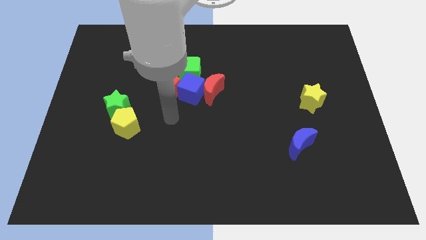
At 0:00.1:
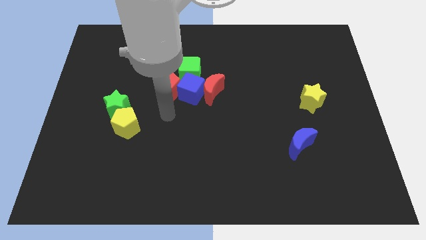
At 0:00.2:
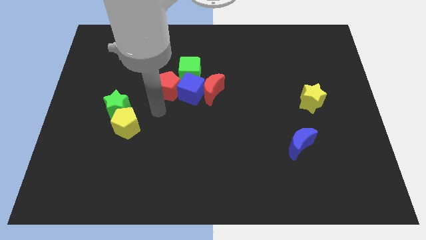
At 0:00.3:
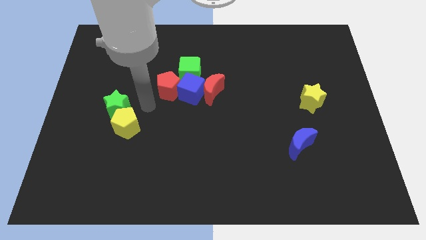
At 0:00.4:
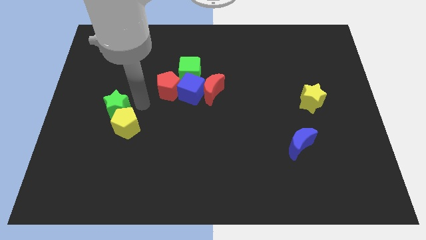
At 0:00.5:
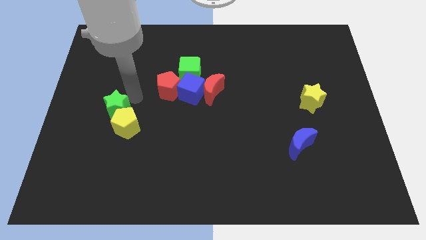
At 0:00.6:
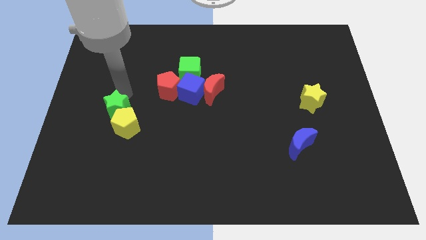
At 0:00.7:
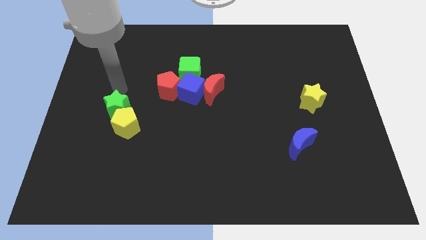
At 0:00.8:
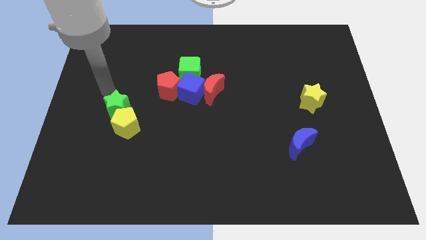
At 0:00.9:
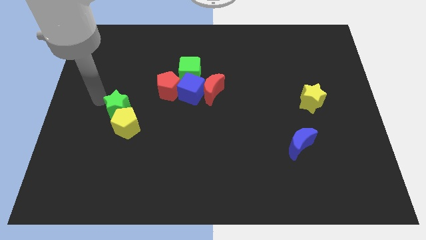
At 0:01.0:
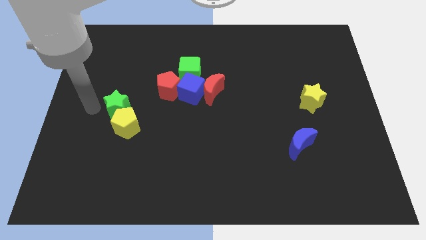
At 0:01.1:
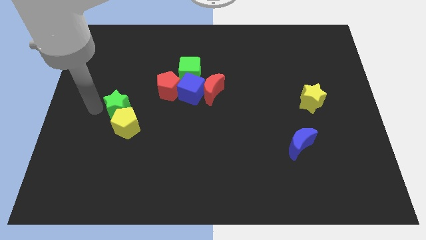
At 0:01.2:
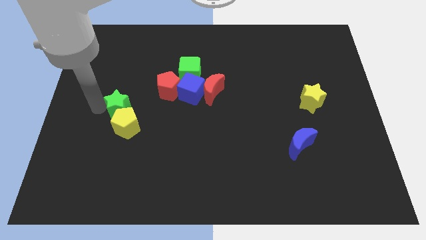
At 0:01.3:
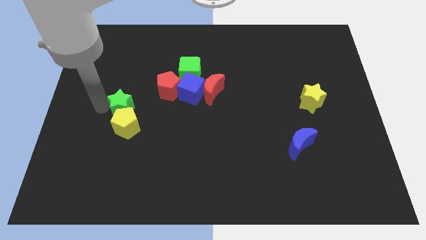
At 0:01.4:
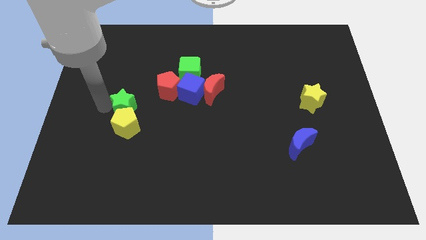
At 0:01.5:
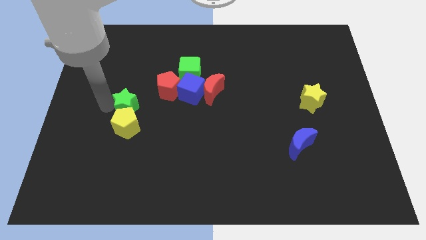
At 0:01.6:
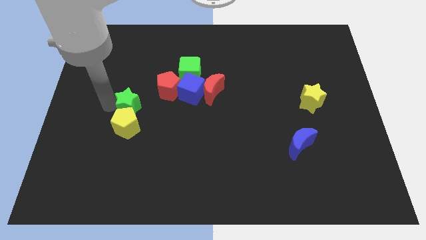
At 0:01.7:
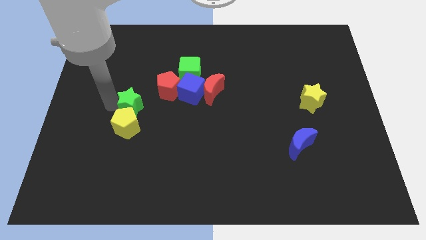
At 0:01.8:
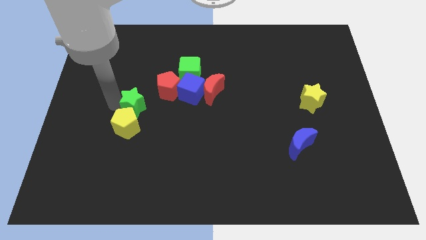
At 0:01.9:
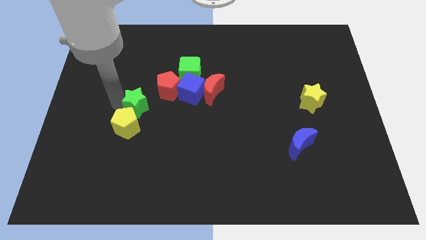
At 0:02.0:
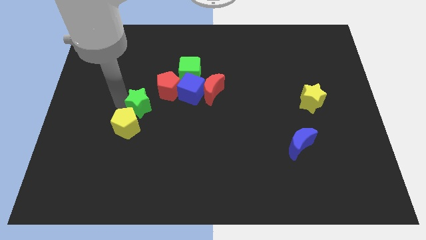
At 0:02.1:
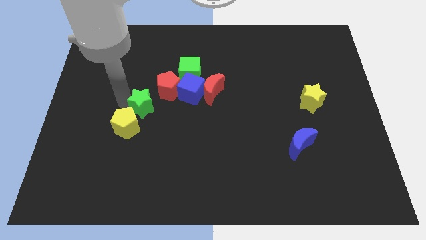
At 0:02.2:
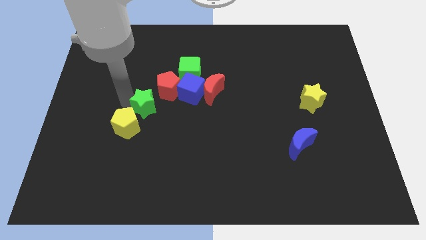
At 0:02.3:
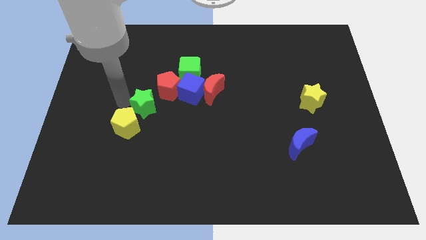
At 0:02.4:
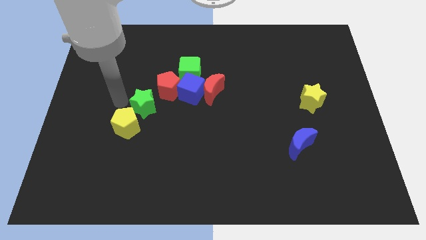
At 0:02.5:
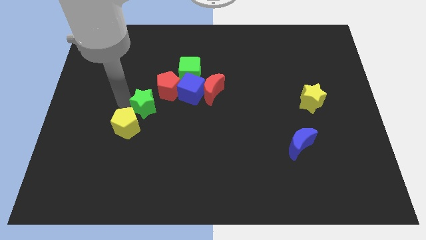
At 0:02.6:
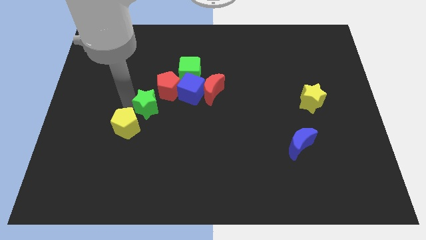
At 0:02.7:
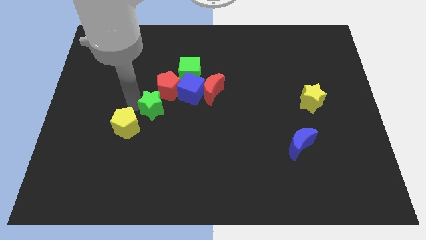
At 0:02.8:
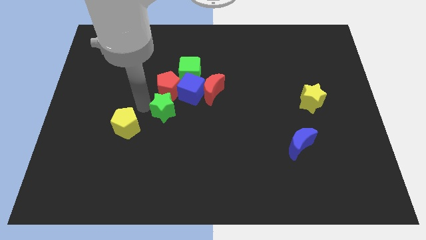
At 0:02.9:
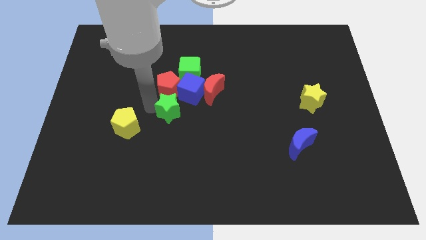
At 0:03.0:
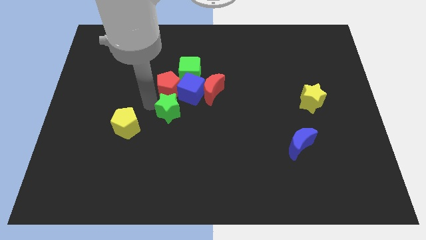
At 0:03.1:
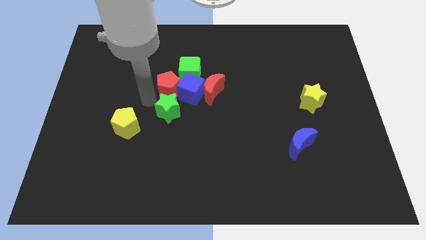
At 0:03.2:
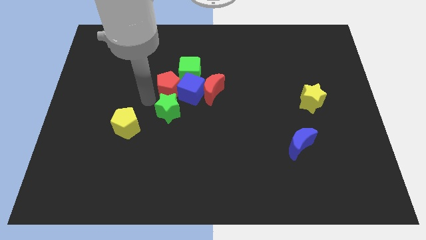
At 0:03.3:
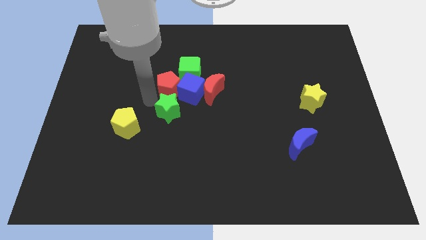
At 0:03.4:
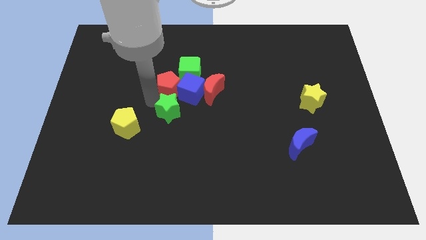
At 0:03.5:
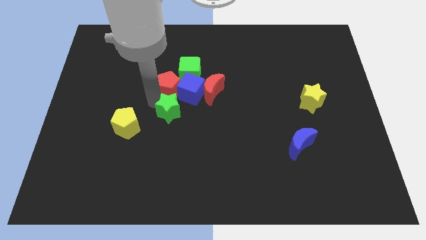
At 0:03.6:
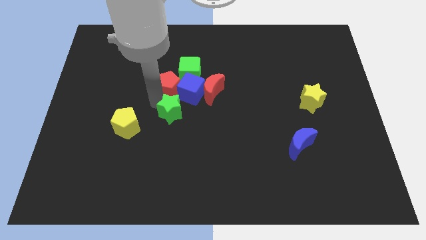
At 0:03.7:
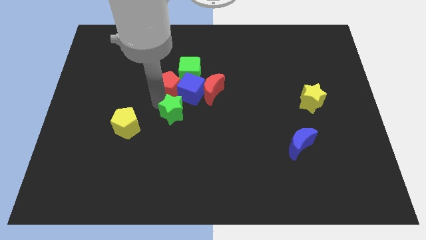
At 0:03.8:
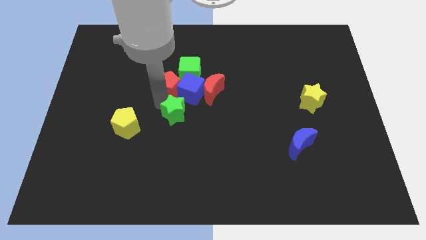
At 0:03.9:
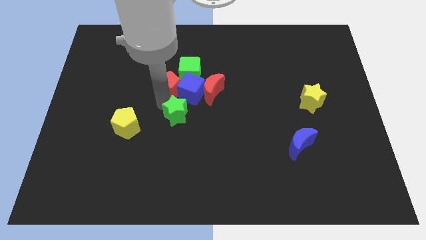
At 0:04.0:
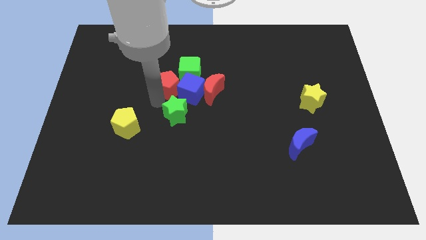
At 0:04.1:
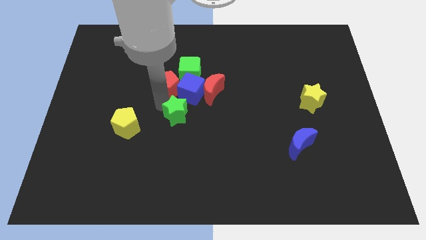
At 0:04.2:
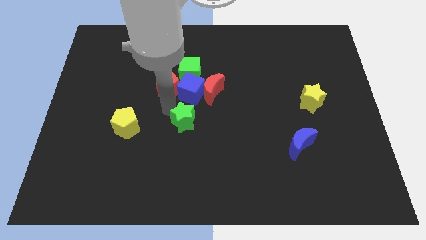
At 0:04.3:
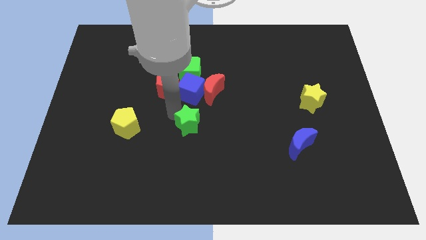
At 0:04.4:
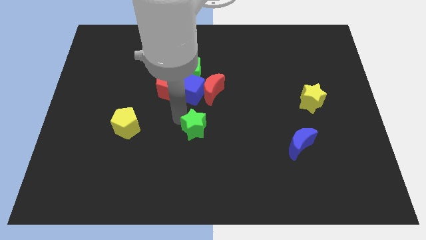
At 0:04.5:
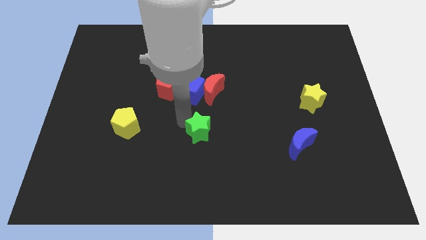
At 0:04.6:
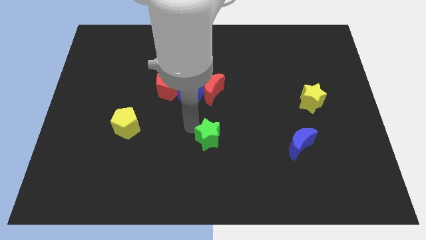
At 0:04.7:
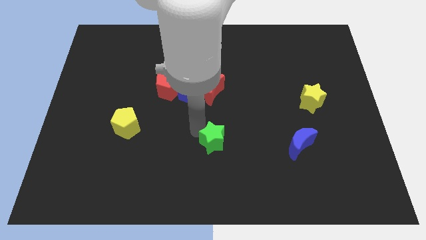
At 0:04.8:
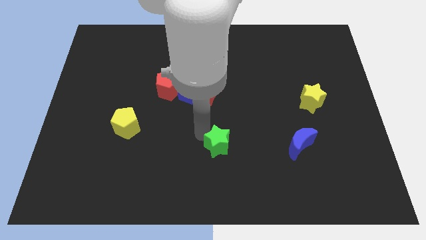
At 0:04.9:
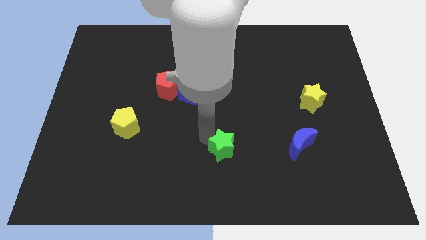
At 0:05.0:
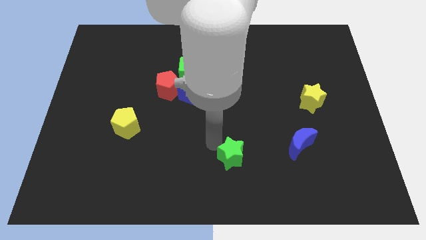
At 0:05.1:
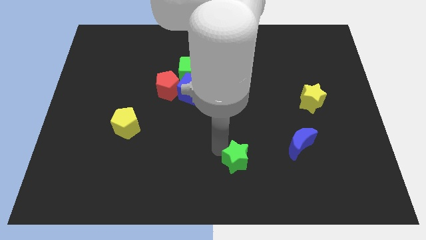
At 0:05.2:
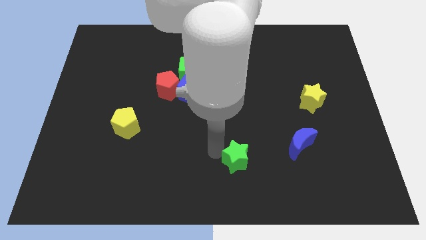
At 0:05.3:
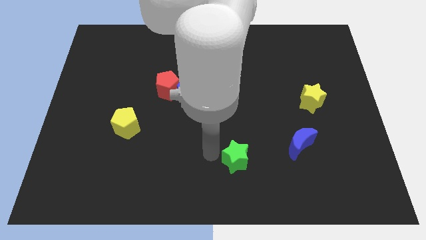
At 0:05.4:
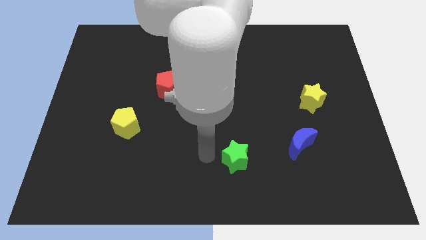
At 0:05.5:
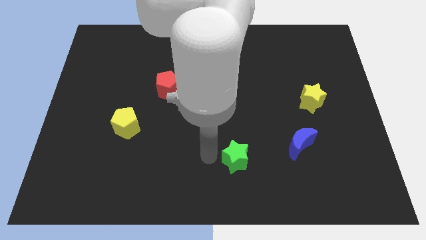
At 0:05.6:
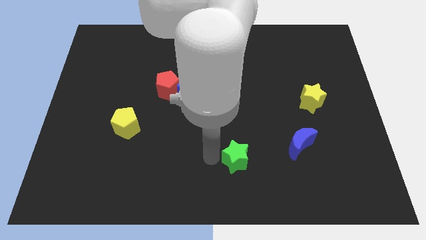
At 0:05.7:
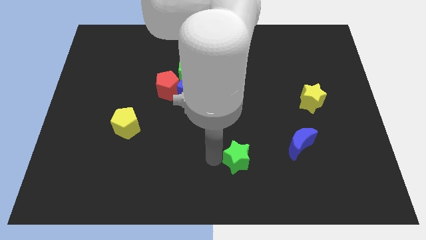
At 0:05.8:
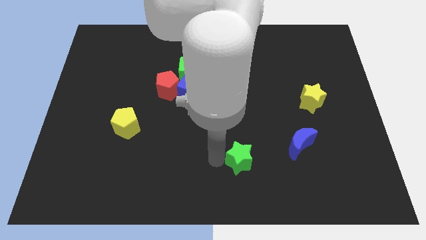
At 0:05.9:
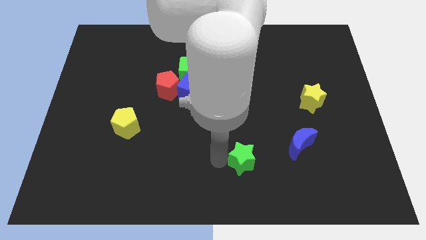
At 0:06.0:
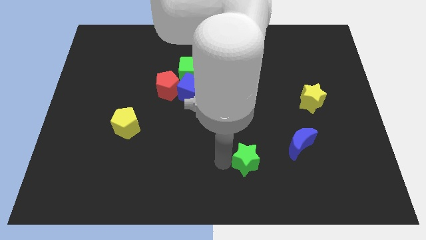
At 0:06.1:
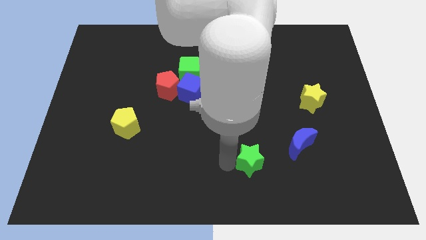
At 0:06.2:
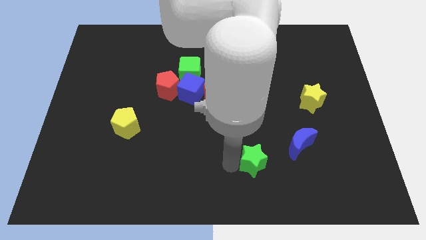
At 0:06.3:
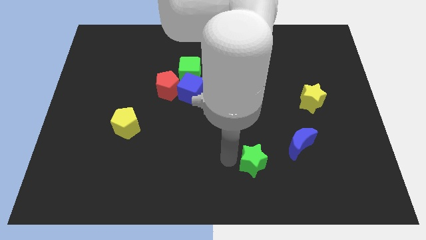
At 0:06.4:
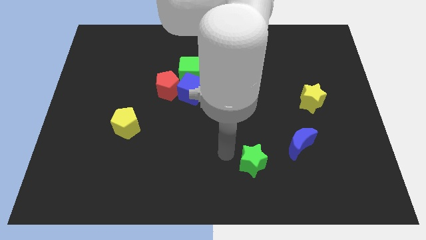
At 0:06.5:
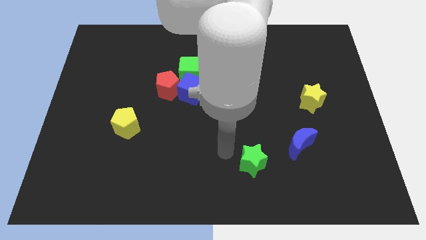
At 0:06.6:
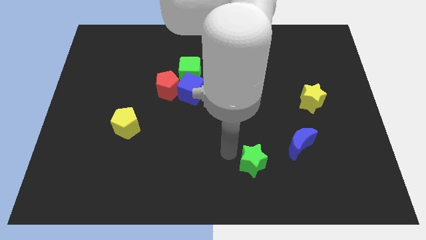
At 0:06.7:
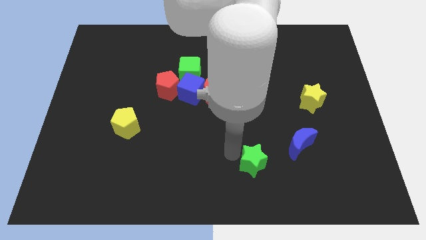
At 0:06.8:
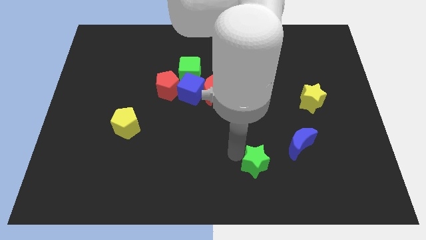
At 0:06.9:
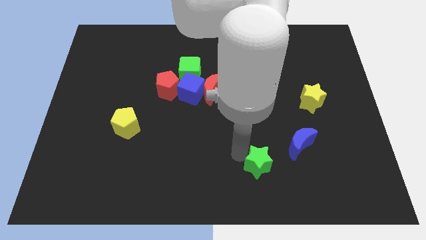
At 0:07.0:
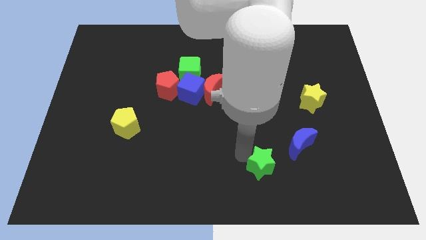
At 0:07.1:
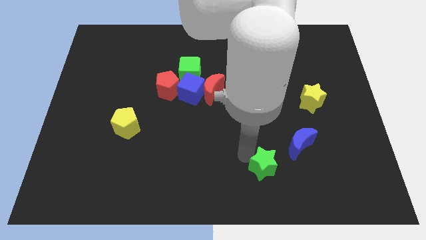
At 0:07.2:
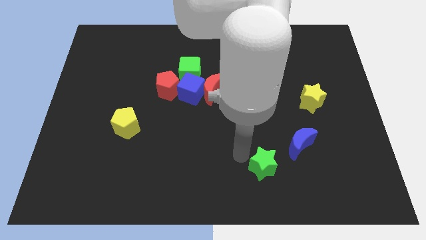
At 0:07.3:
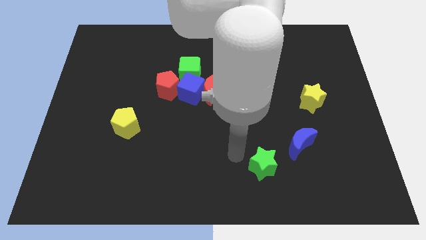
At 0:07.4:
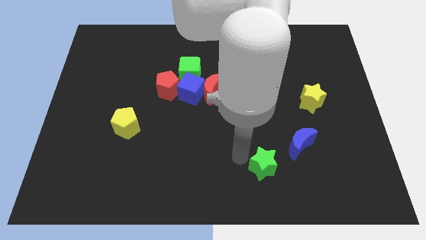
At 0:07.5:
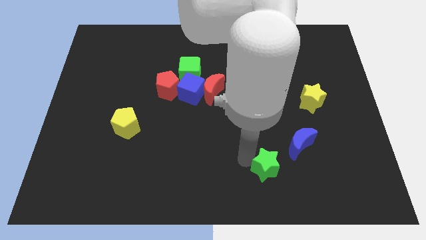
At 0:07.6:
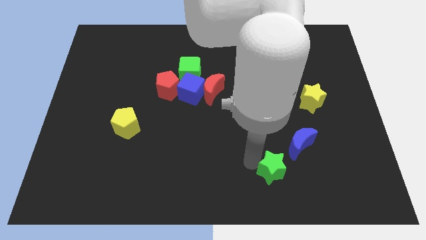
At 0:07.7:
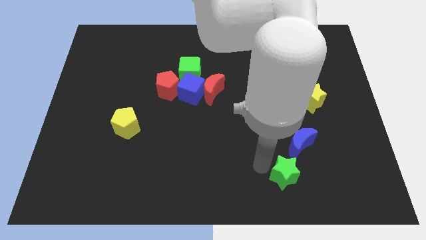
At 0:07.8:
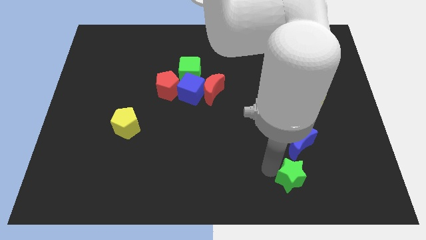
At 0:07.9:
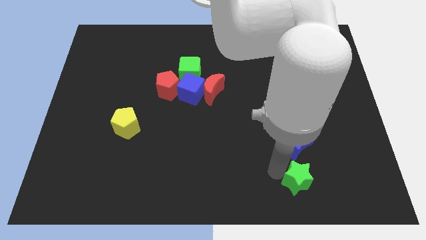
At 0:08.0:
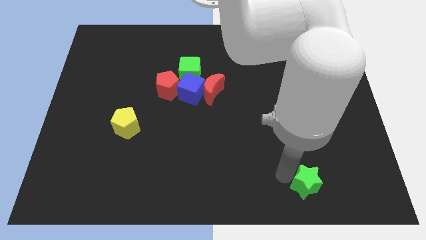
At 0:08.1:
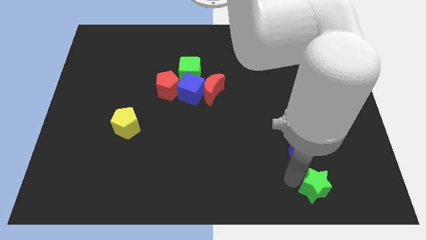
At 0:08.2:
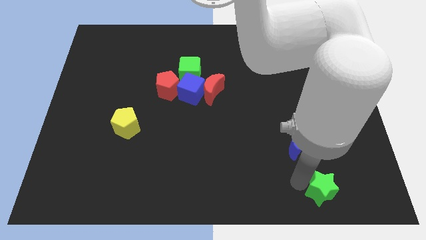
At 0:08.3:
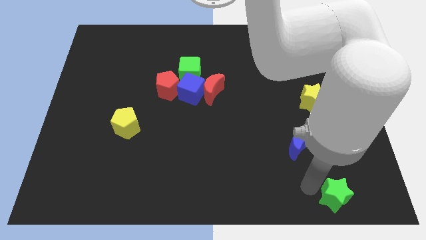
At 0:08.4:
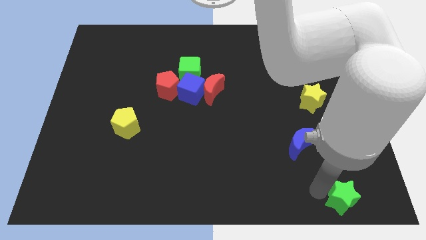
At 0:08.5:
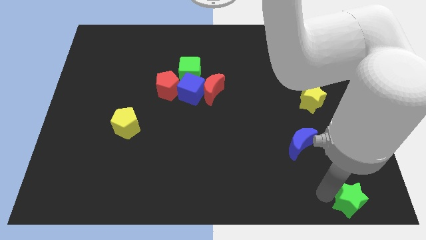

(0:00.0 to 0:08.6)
slide the green star to the lower right corner
